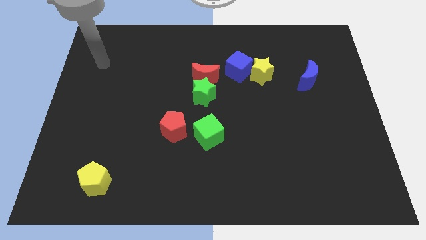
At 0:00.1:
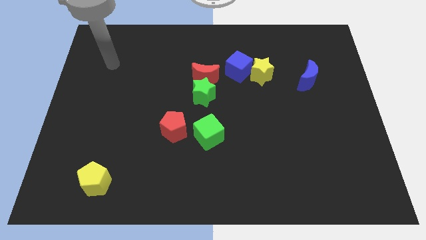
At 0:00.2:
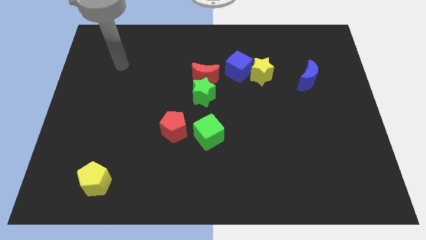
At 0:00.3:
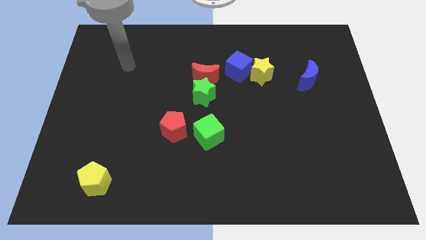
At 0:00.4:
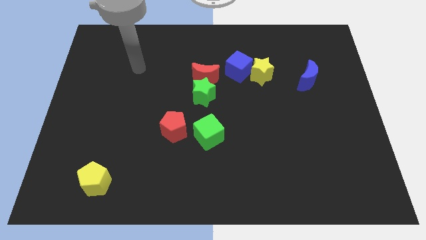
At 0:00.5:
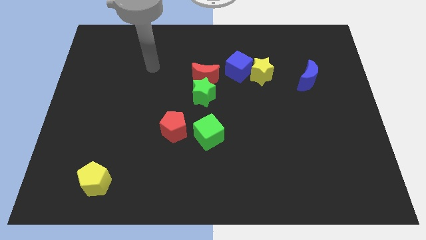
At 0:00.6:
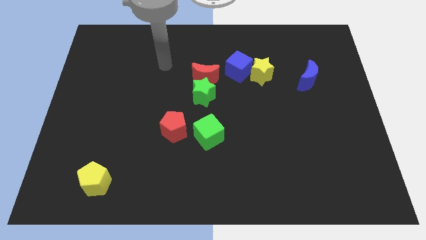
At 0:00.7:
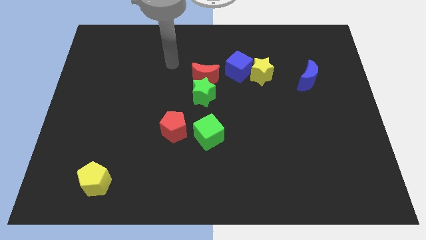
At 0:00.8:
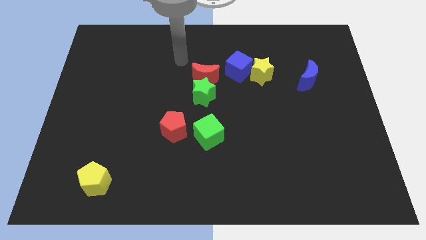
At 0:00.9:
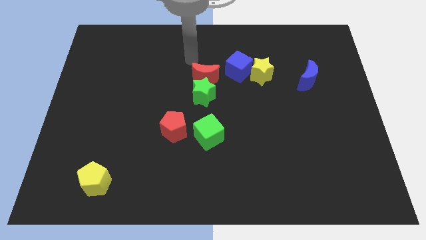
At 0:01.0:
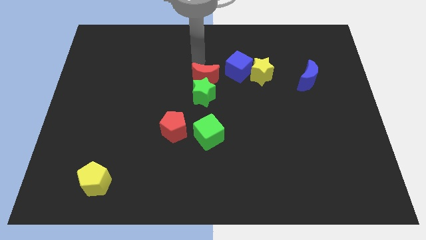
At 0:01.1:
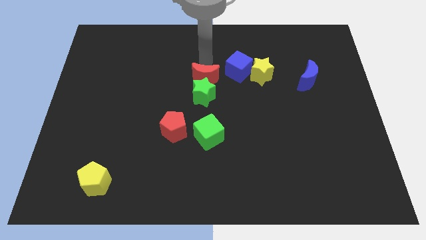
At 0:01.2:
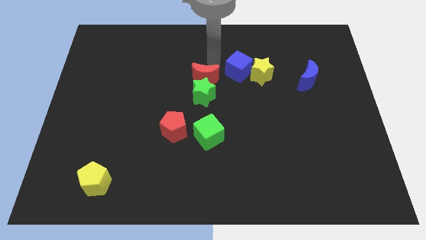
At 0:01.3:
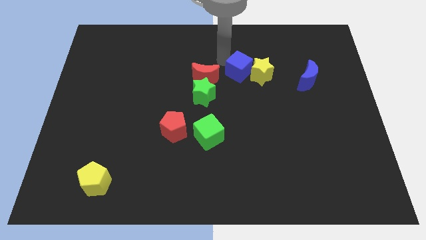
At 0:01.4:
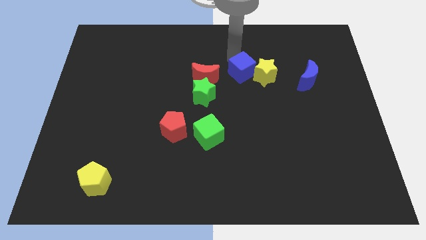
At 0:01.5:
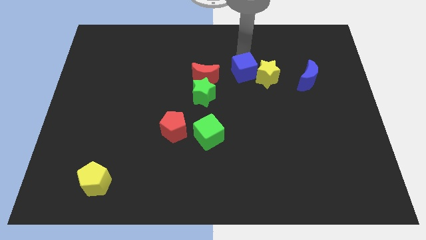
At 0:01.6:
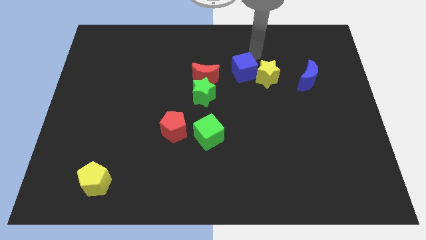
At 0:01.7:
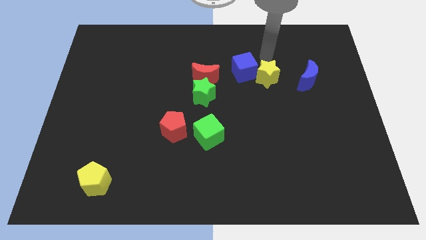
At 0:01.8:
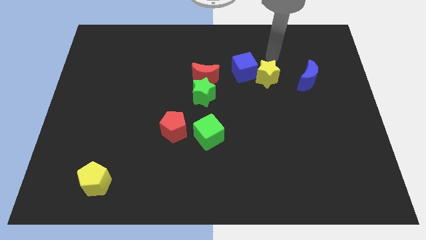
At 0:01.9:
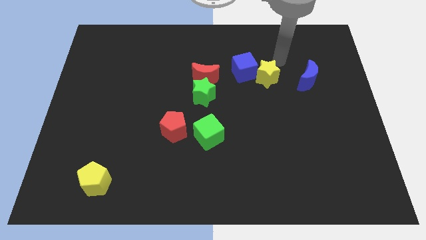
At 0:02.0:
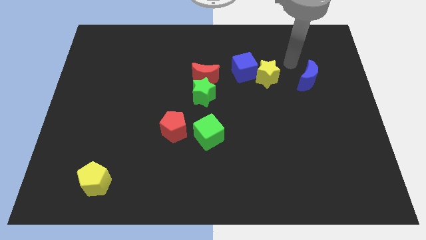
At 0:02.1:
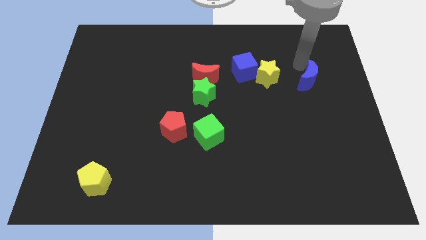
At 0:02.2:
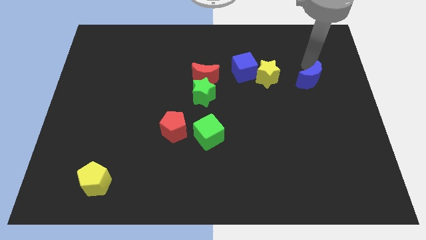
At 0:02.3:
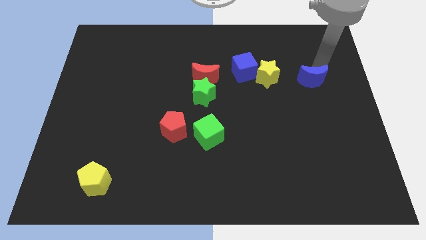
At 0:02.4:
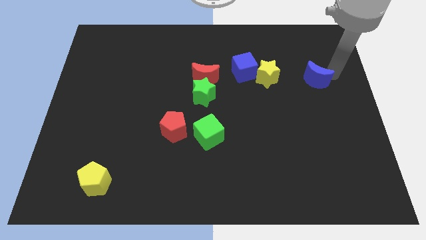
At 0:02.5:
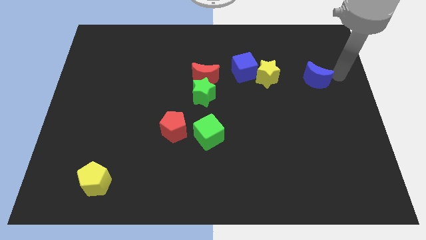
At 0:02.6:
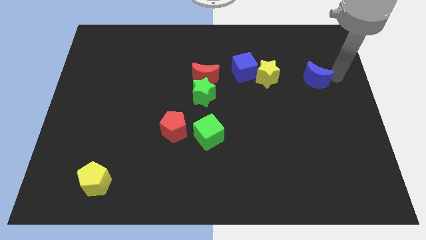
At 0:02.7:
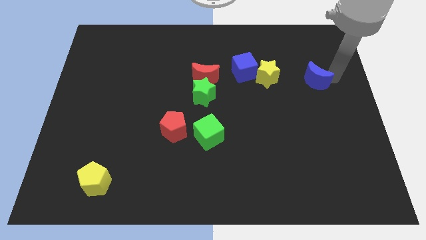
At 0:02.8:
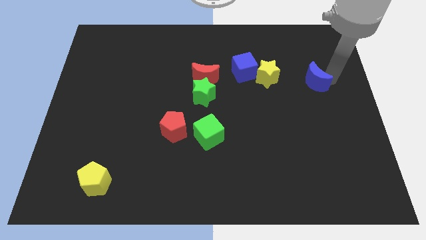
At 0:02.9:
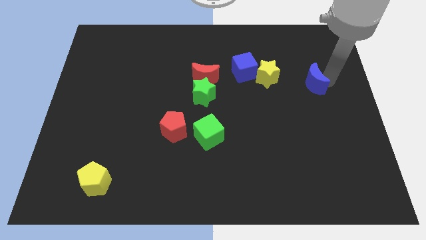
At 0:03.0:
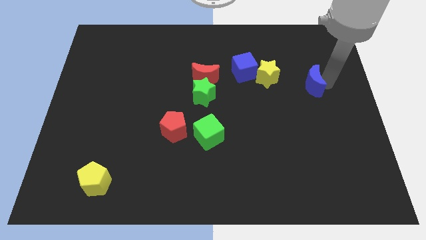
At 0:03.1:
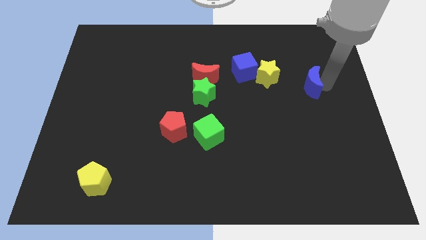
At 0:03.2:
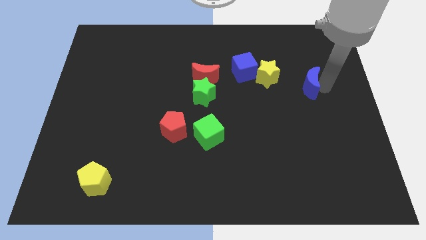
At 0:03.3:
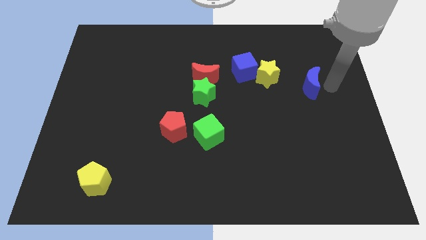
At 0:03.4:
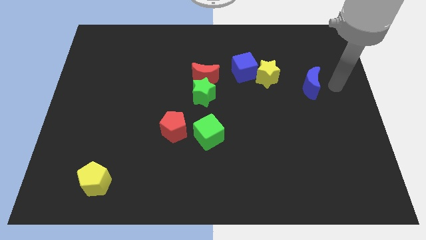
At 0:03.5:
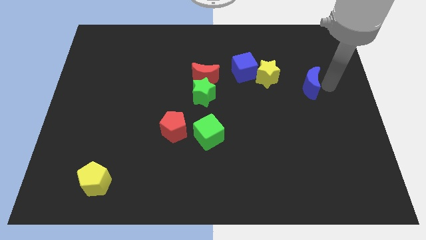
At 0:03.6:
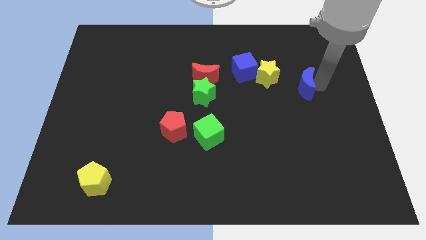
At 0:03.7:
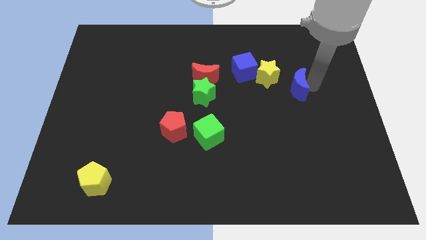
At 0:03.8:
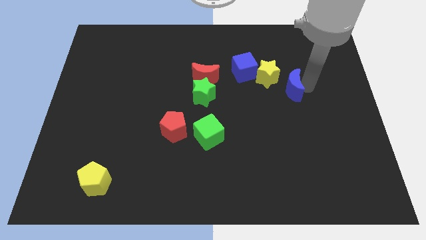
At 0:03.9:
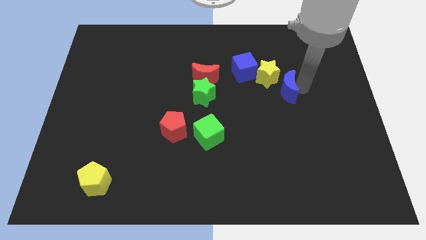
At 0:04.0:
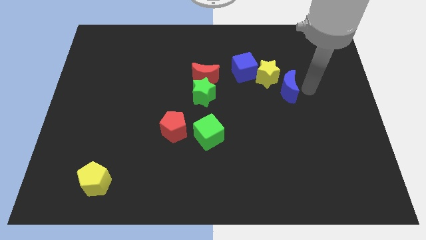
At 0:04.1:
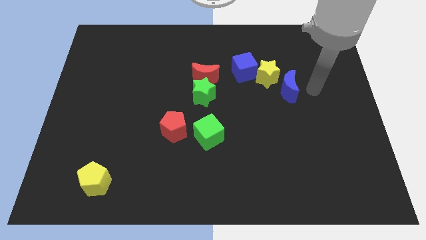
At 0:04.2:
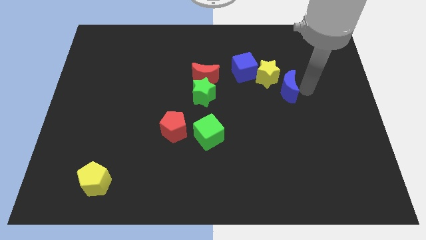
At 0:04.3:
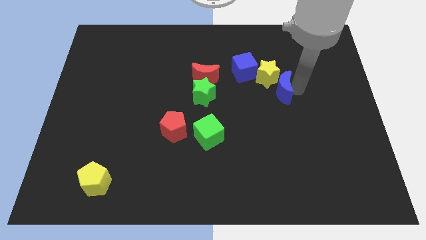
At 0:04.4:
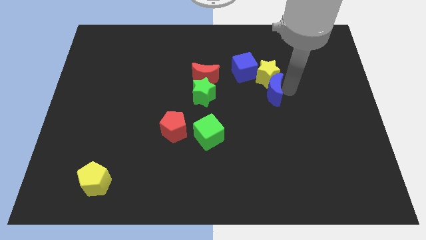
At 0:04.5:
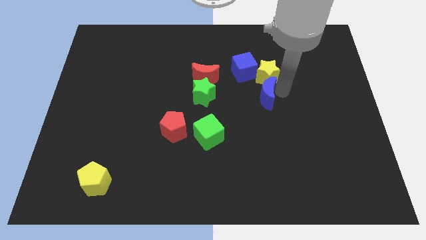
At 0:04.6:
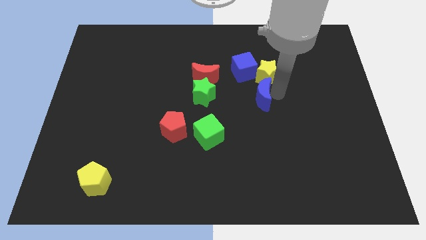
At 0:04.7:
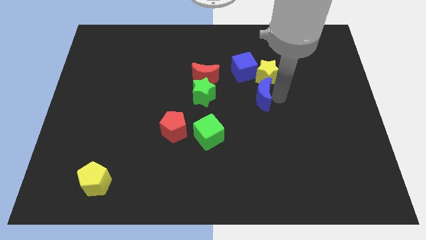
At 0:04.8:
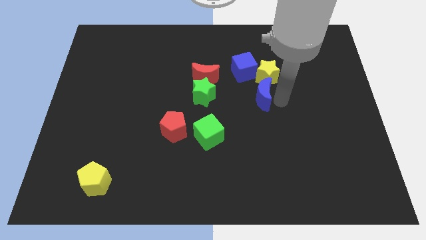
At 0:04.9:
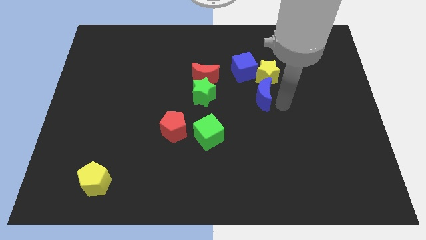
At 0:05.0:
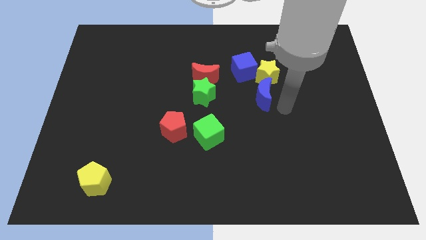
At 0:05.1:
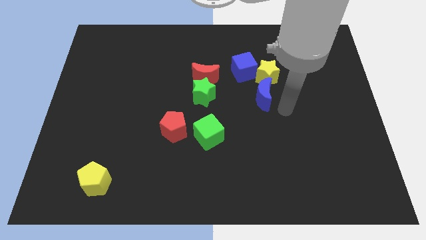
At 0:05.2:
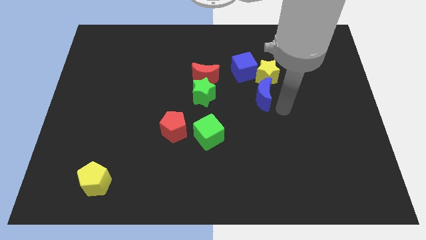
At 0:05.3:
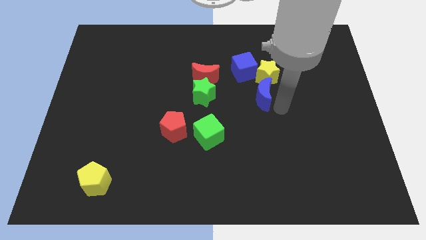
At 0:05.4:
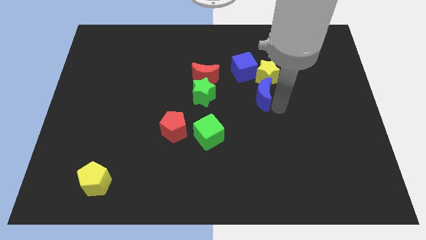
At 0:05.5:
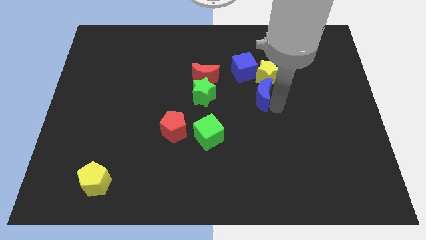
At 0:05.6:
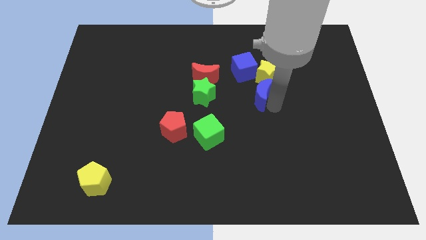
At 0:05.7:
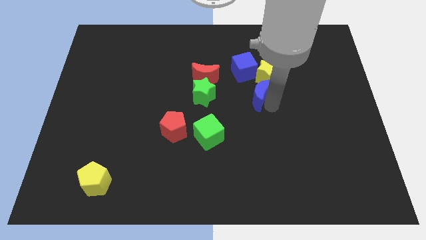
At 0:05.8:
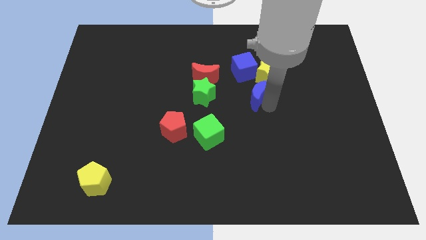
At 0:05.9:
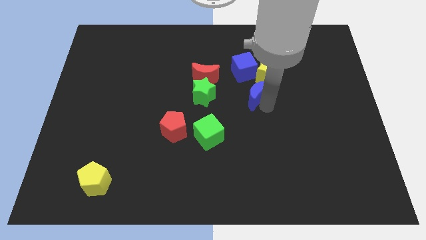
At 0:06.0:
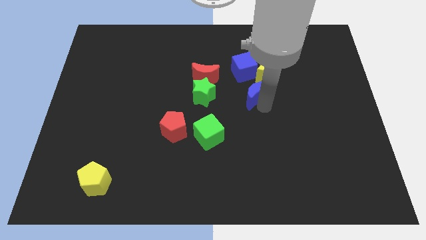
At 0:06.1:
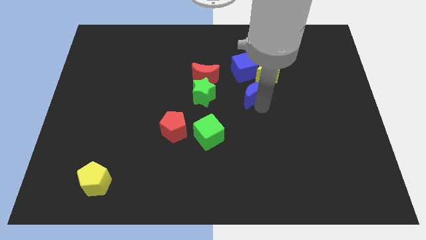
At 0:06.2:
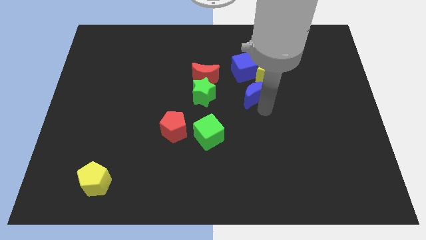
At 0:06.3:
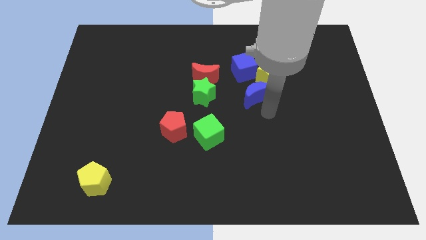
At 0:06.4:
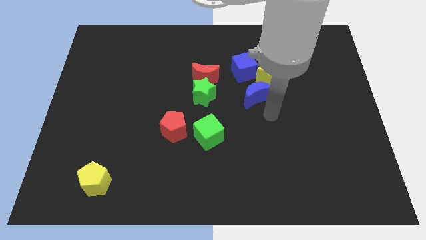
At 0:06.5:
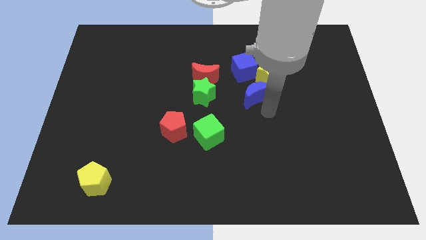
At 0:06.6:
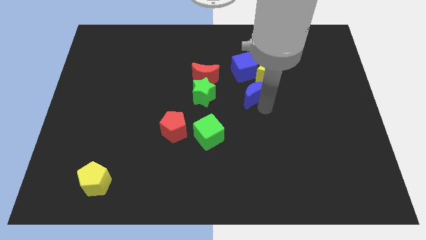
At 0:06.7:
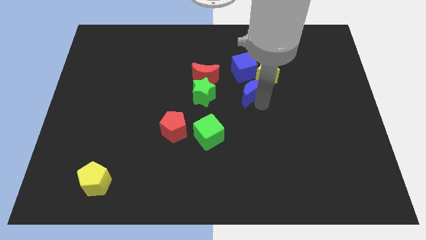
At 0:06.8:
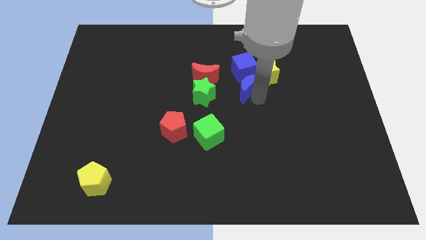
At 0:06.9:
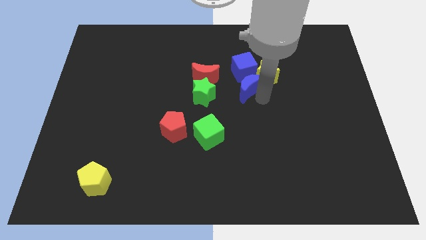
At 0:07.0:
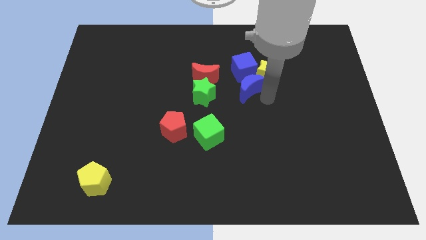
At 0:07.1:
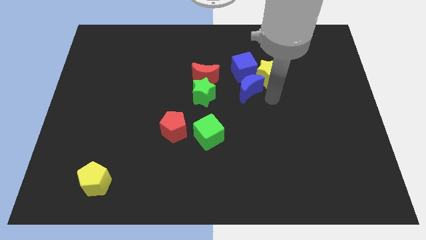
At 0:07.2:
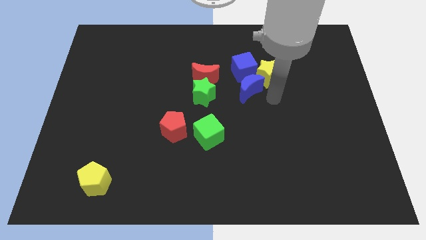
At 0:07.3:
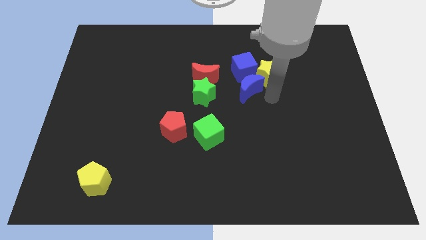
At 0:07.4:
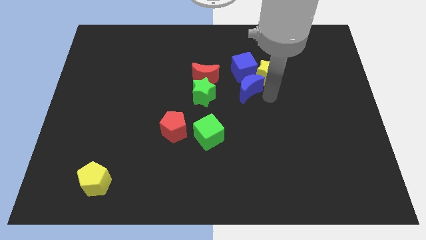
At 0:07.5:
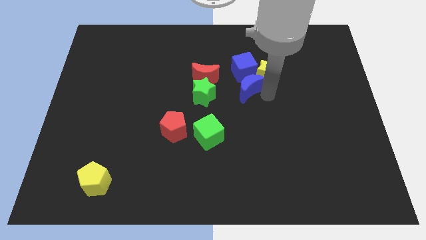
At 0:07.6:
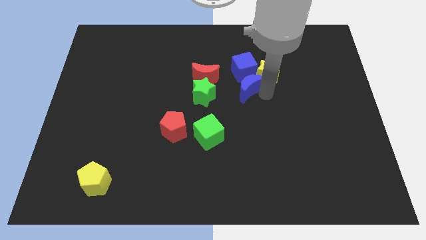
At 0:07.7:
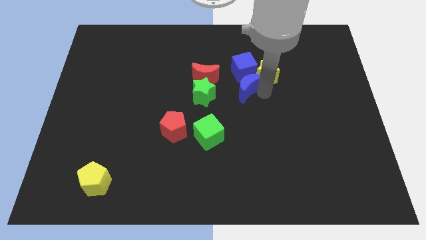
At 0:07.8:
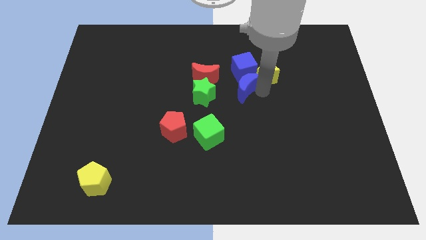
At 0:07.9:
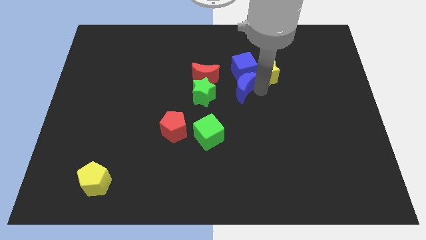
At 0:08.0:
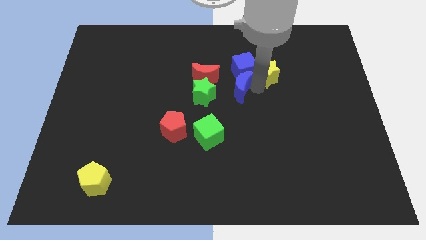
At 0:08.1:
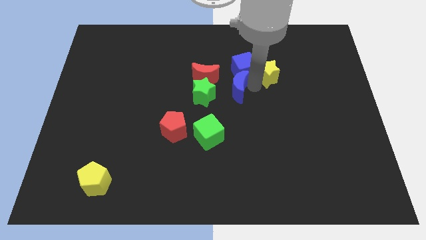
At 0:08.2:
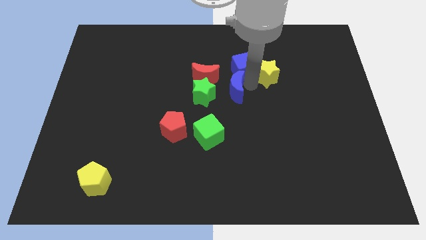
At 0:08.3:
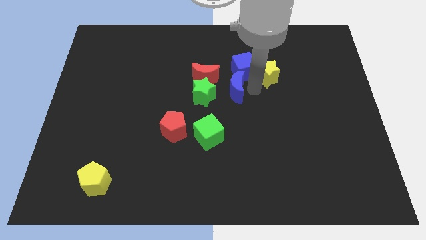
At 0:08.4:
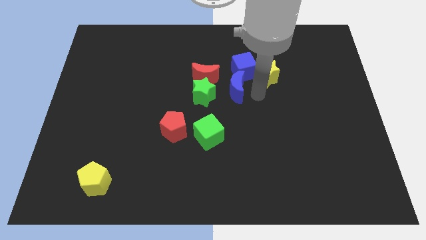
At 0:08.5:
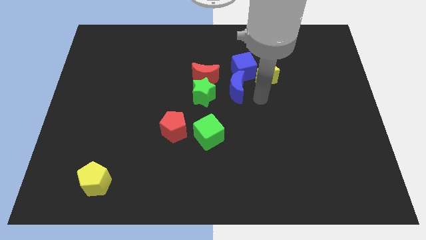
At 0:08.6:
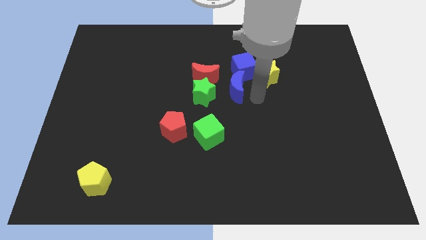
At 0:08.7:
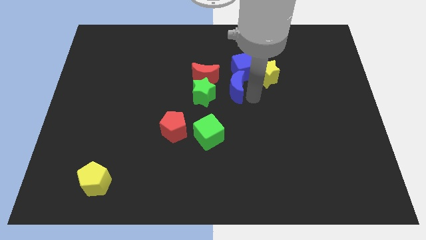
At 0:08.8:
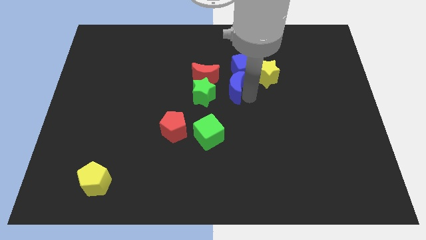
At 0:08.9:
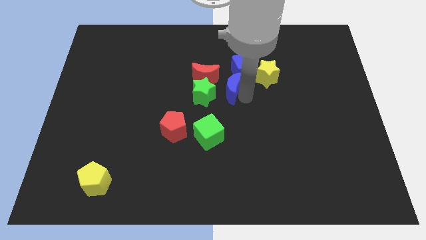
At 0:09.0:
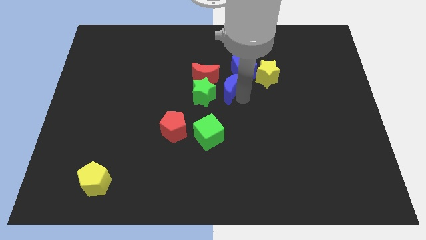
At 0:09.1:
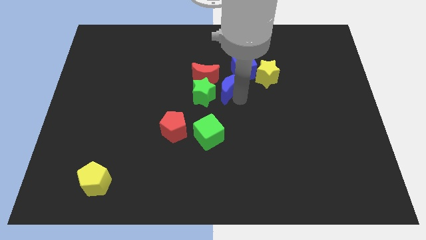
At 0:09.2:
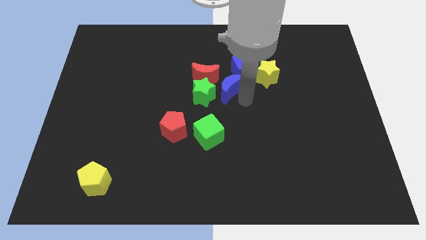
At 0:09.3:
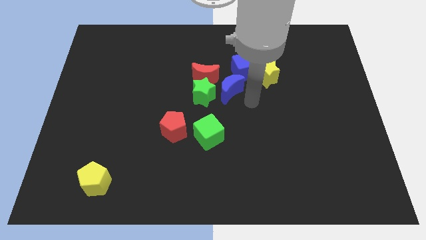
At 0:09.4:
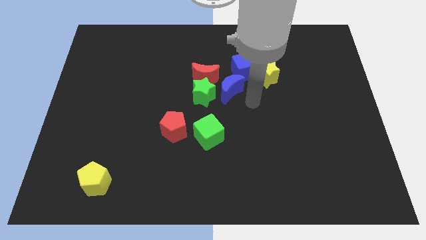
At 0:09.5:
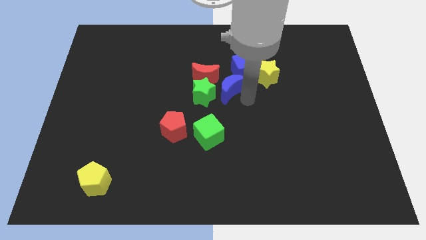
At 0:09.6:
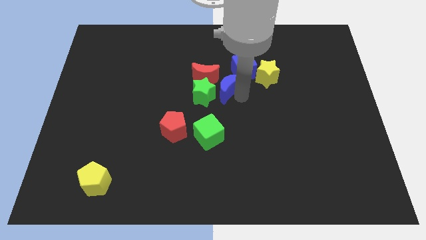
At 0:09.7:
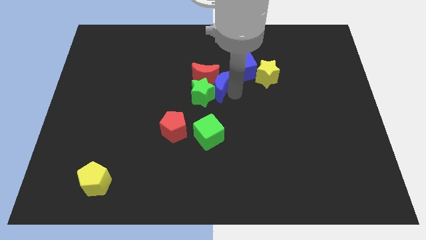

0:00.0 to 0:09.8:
push the blue moon towards the red moon
